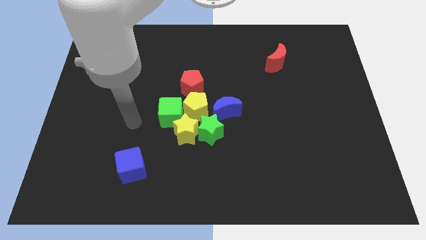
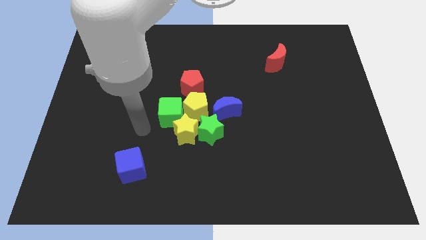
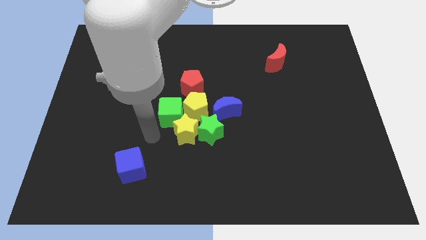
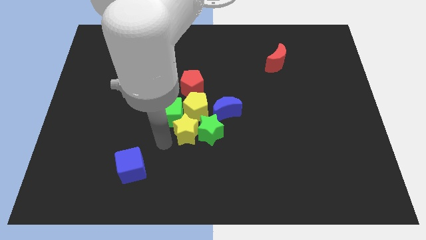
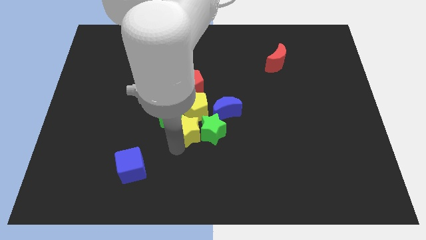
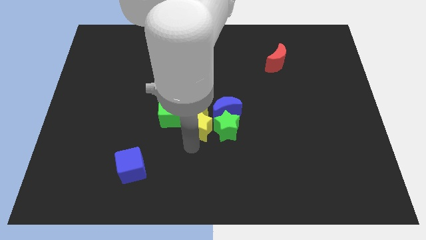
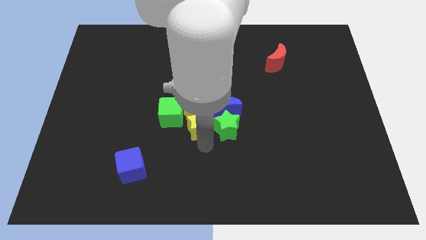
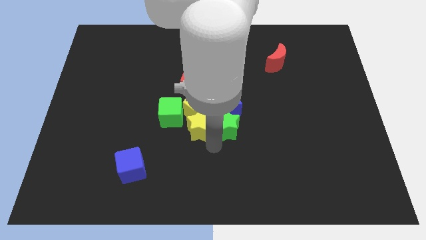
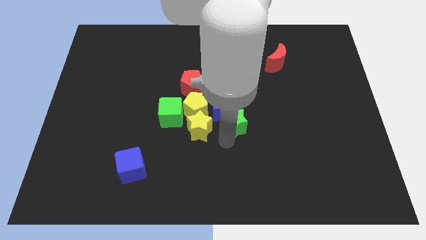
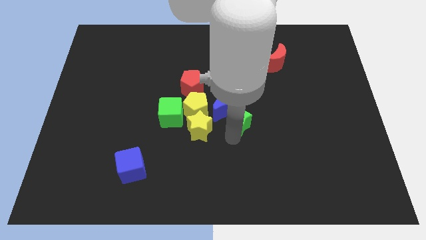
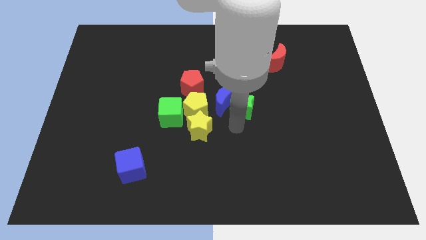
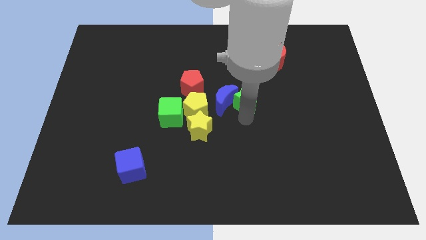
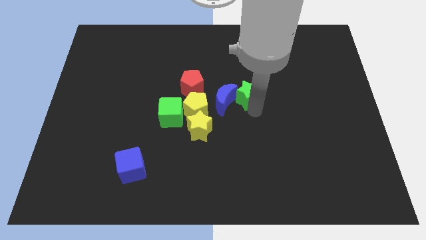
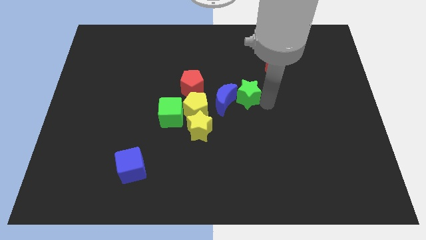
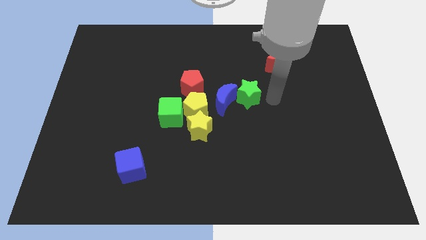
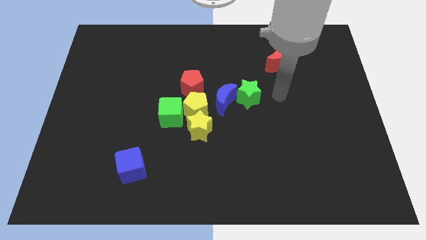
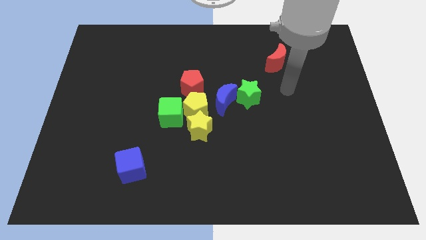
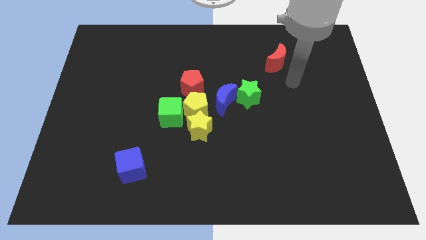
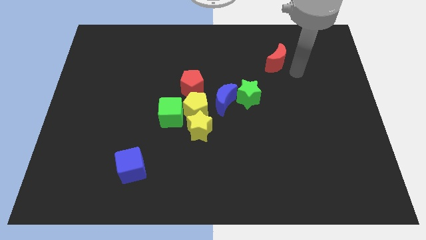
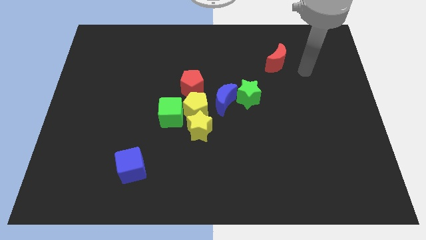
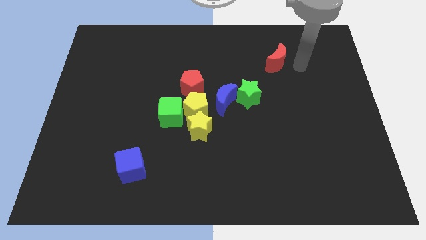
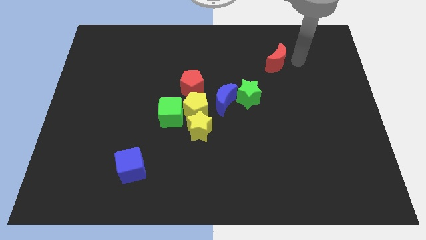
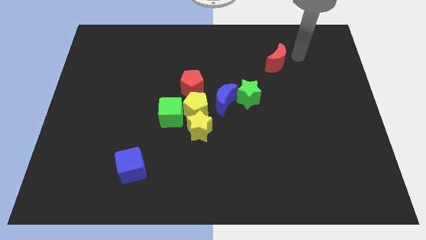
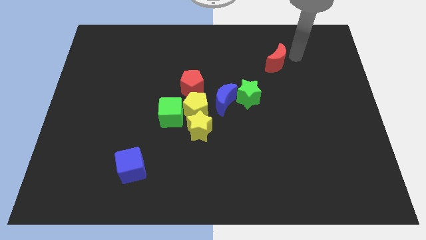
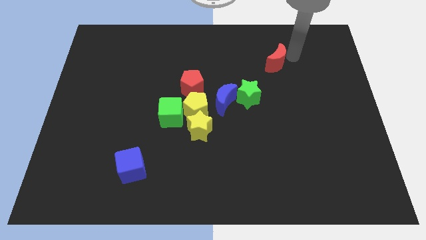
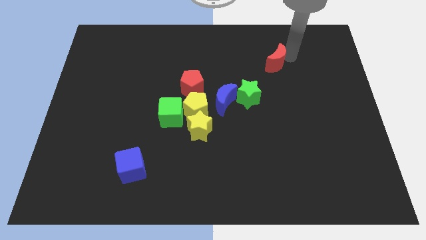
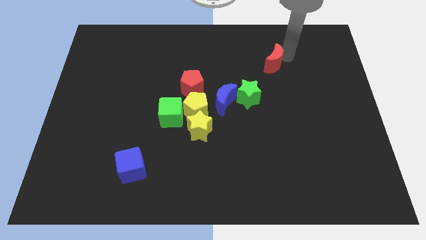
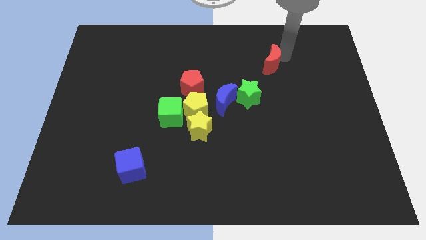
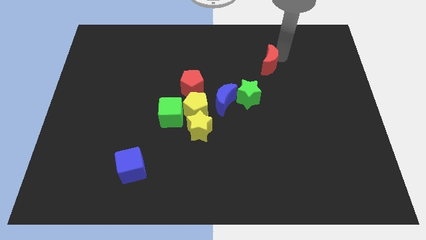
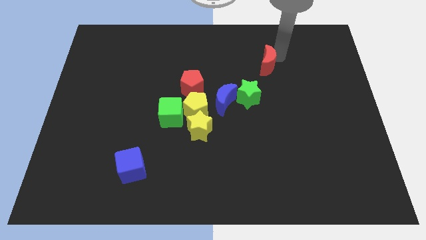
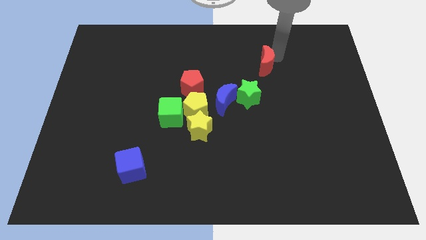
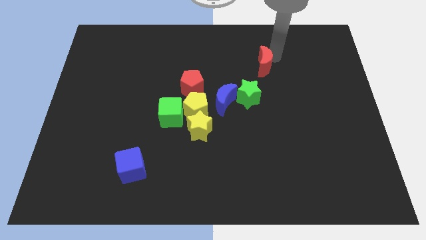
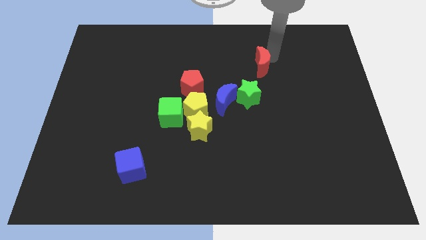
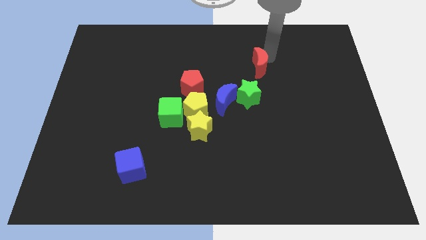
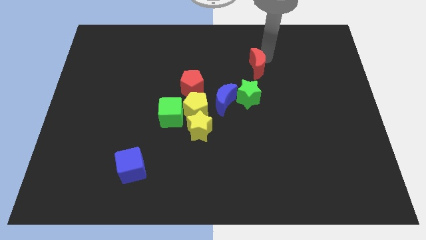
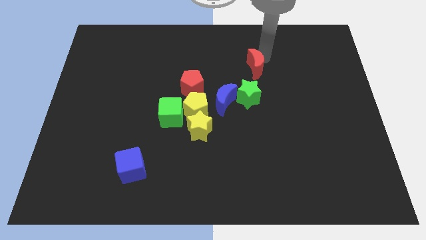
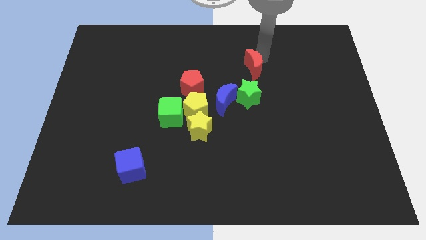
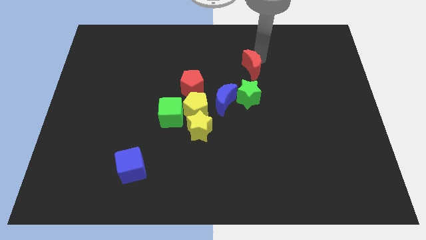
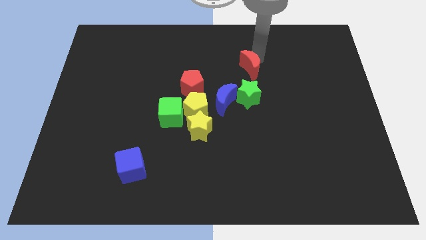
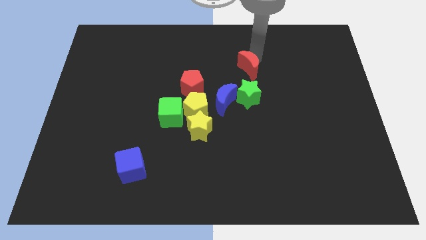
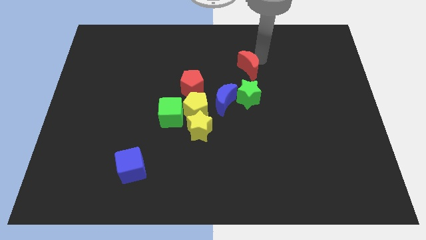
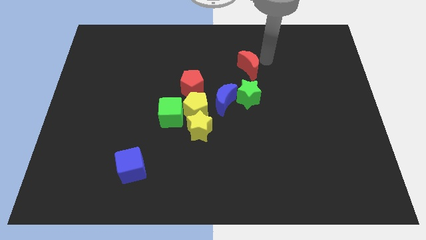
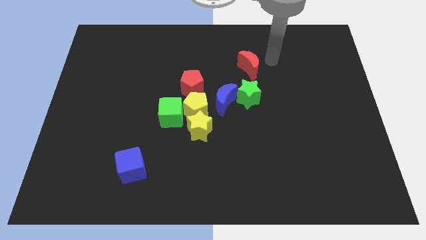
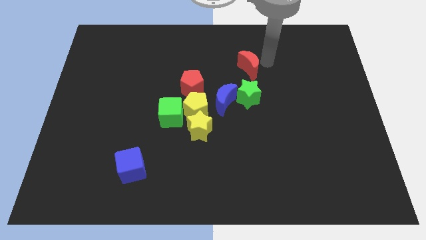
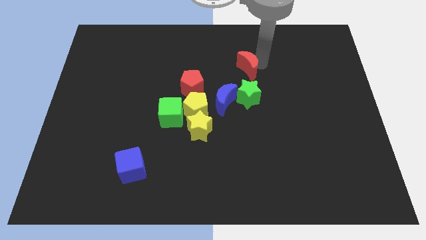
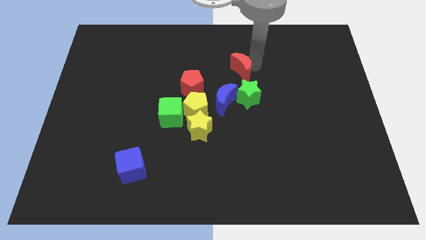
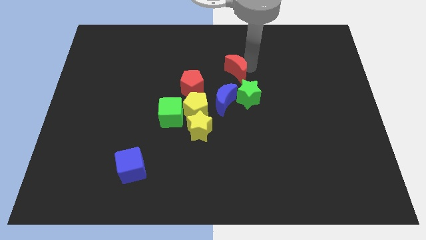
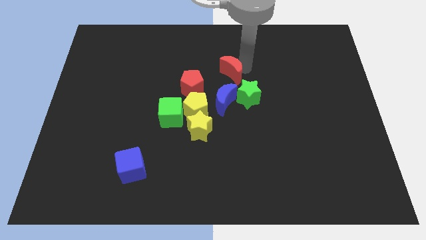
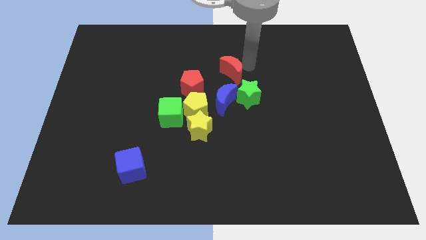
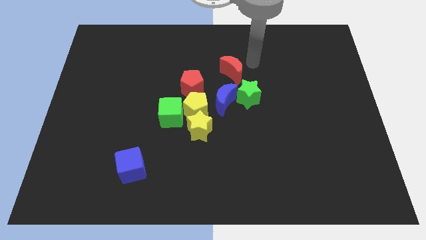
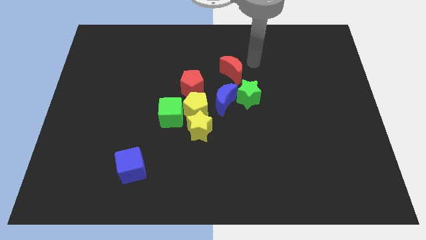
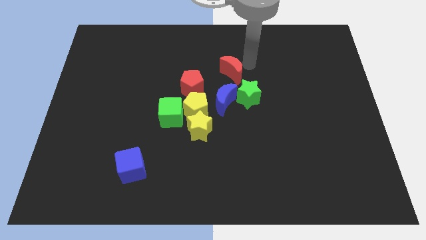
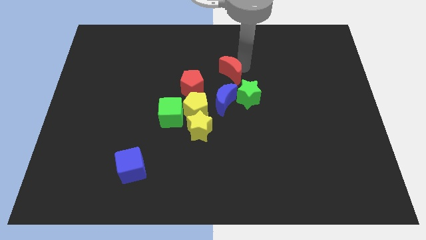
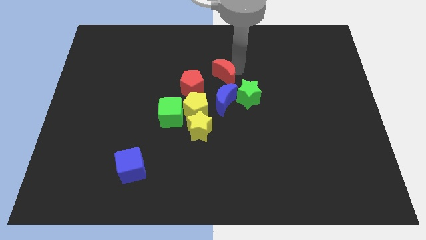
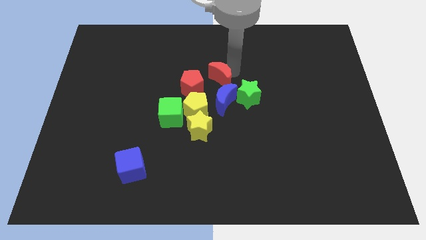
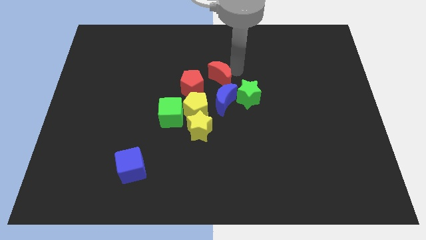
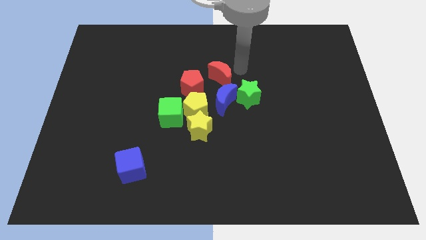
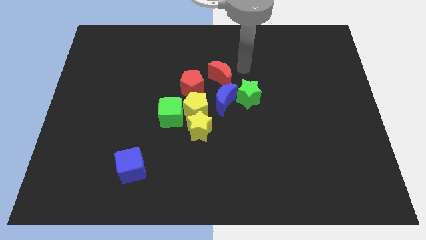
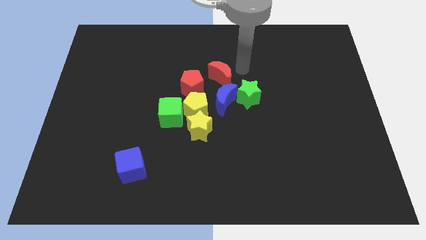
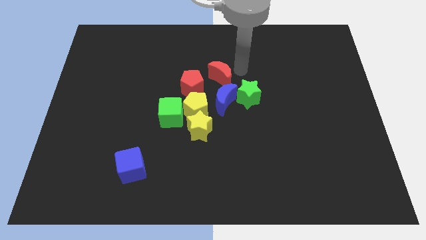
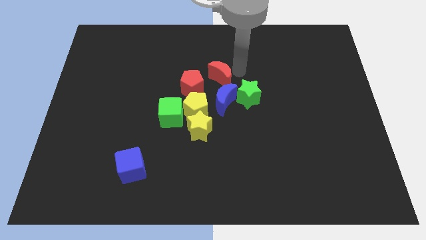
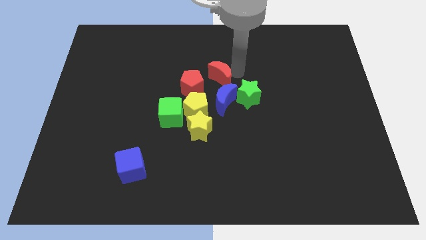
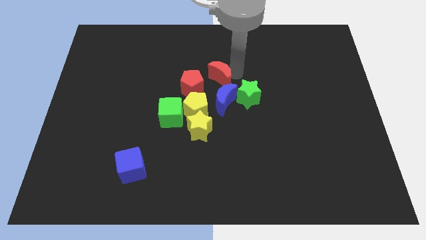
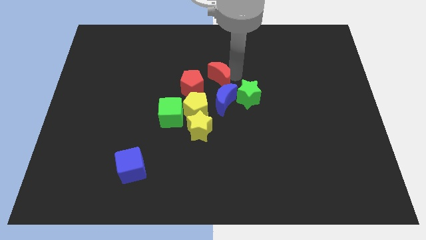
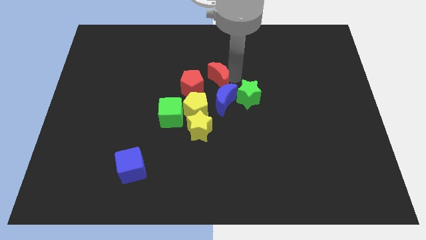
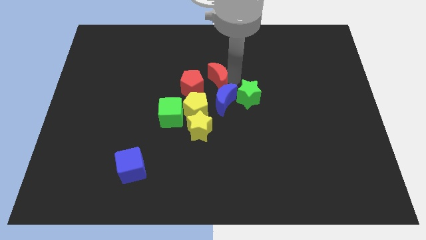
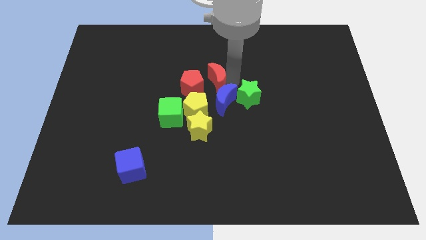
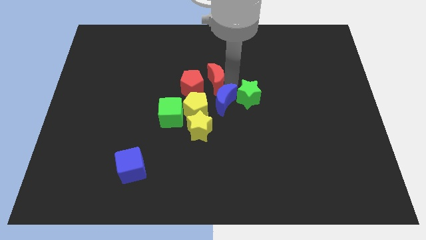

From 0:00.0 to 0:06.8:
move the red moon next to the red pentagon

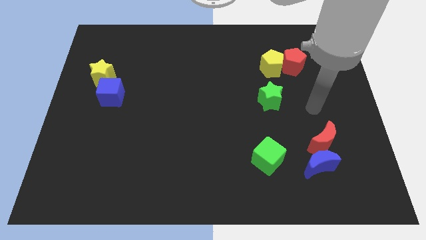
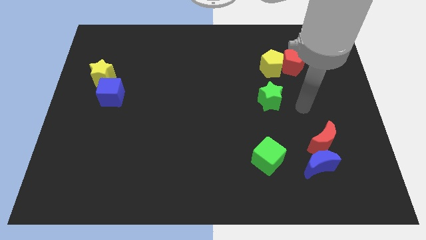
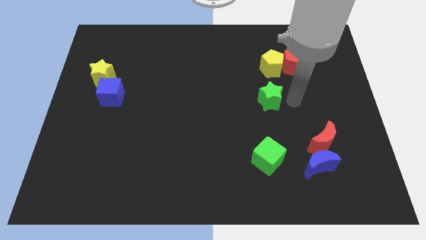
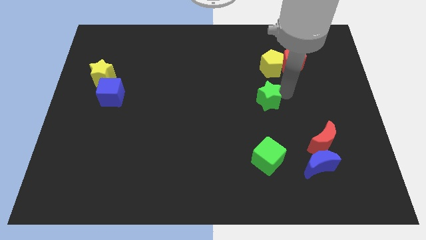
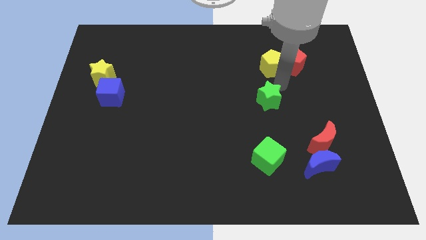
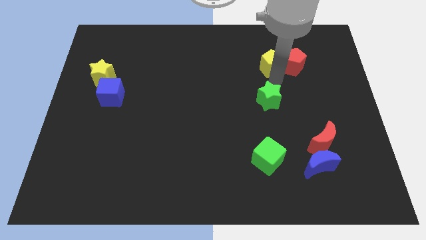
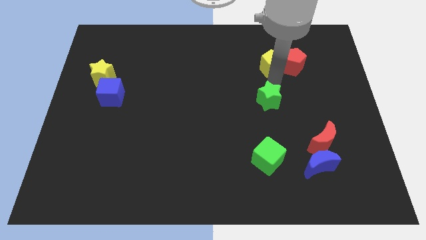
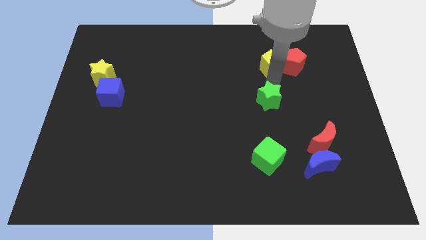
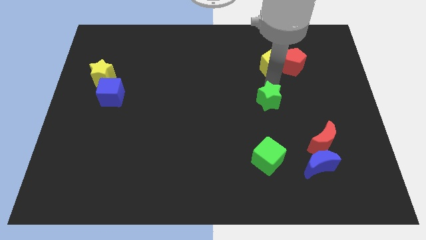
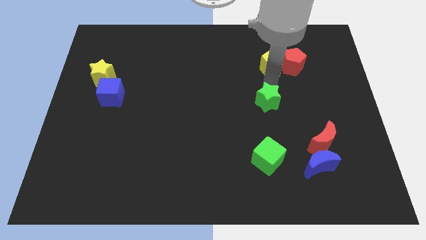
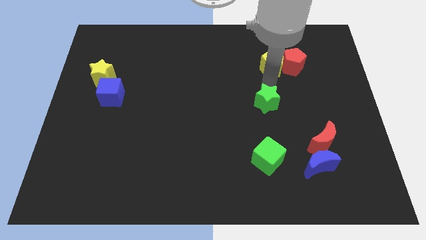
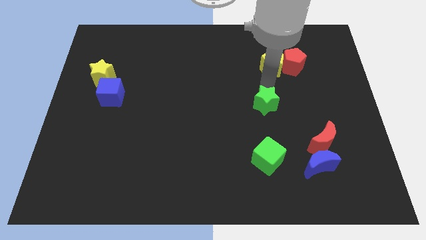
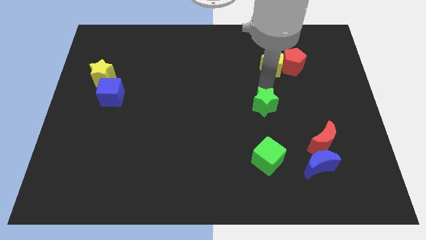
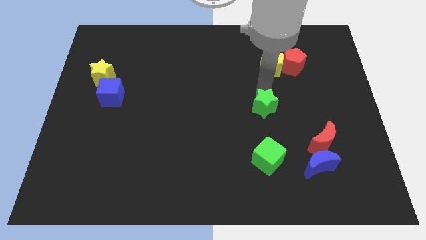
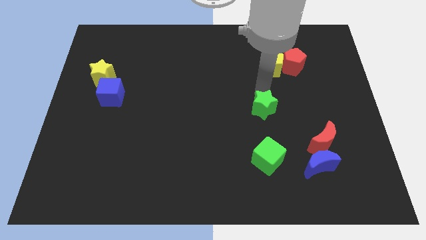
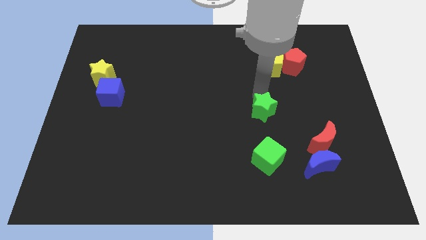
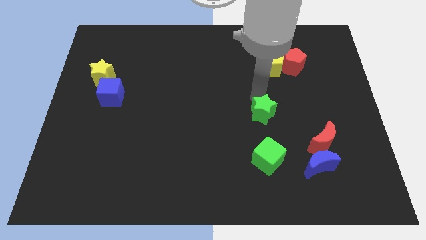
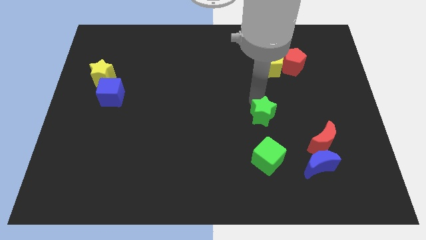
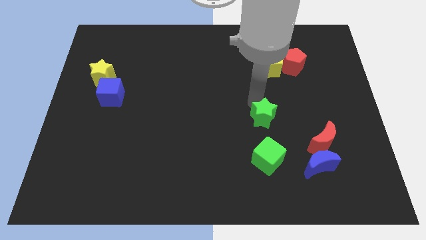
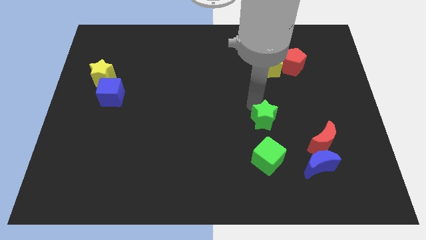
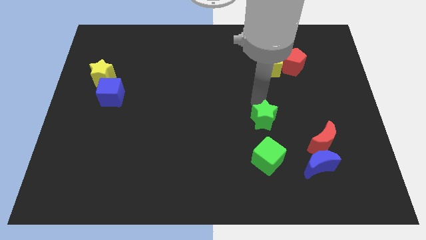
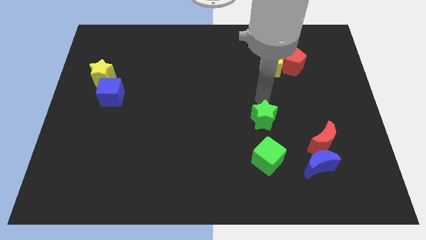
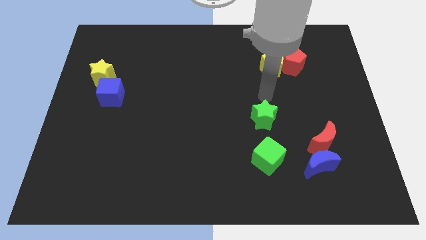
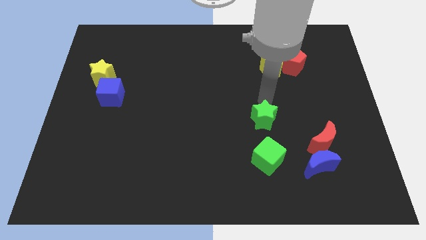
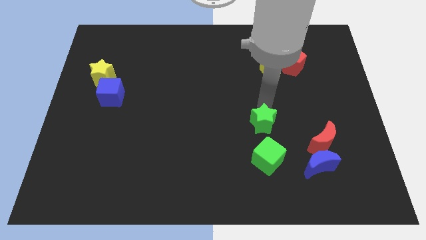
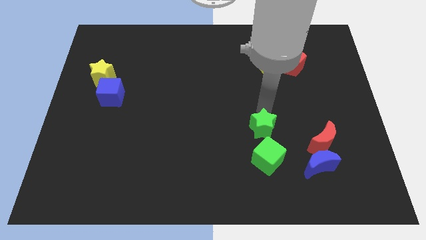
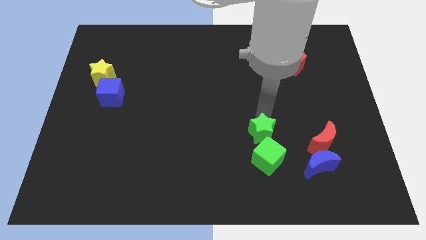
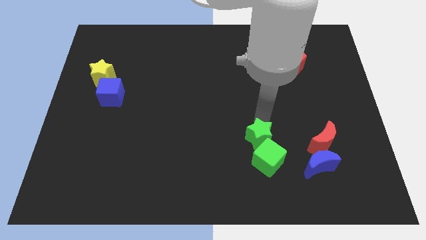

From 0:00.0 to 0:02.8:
put the green star to the green cube
